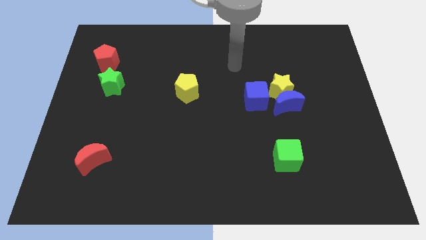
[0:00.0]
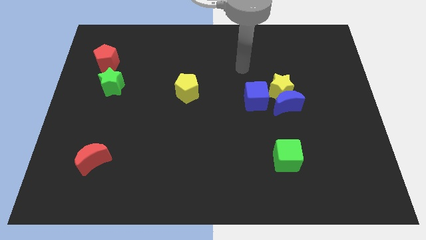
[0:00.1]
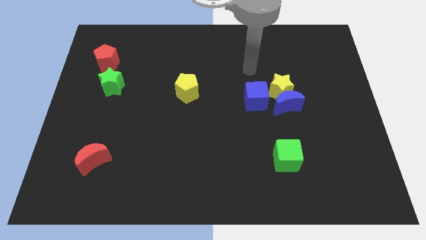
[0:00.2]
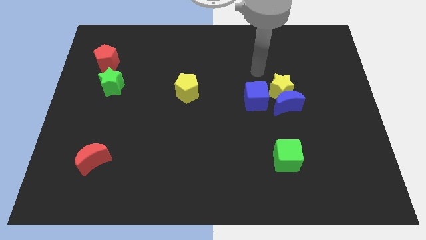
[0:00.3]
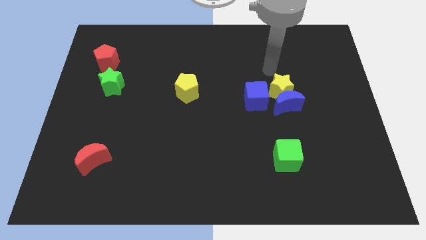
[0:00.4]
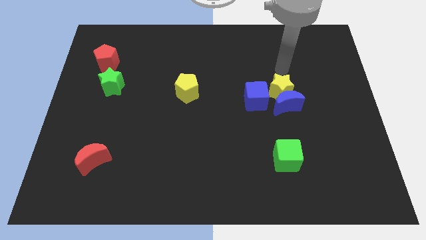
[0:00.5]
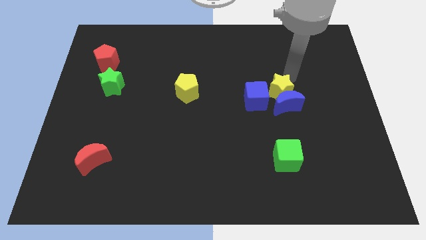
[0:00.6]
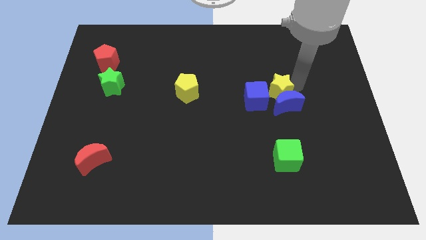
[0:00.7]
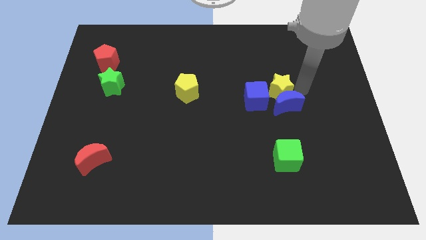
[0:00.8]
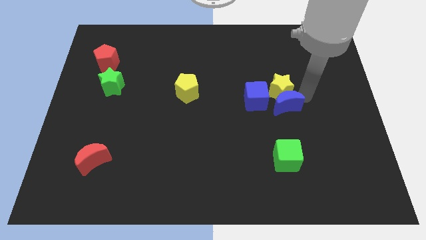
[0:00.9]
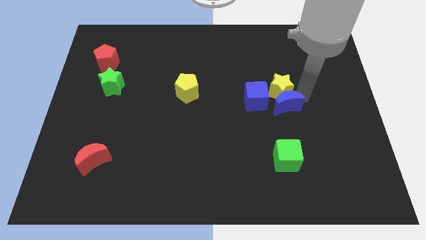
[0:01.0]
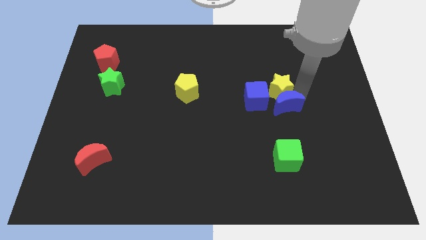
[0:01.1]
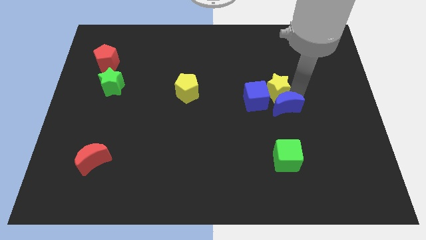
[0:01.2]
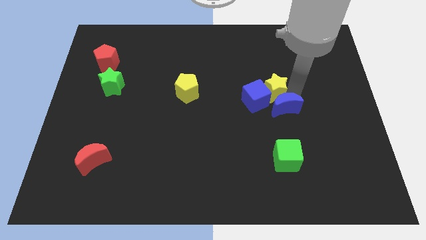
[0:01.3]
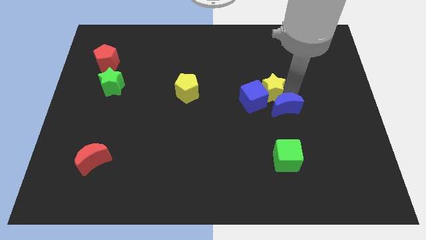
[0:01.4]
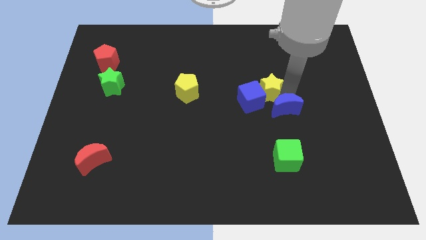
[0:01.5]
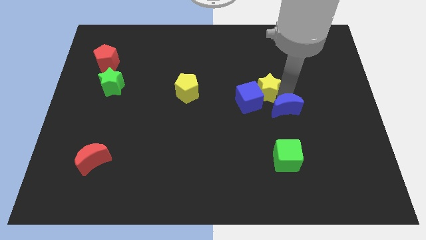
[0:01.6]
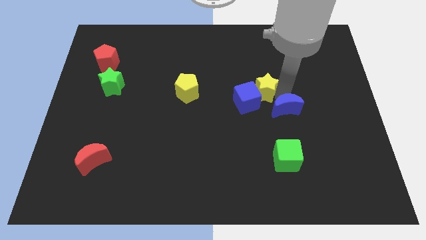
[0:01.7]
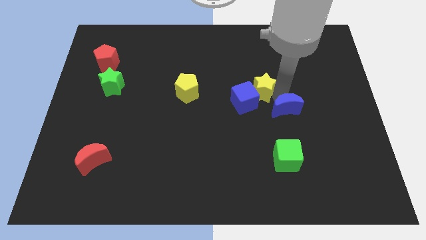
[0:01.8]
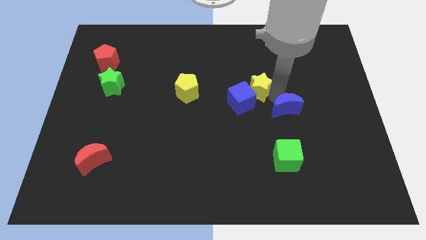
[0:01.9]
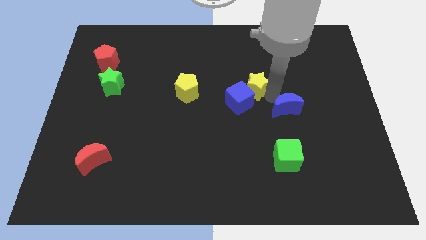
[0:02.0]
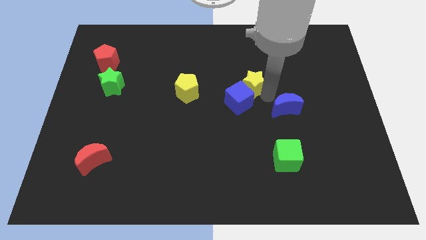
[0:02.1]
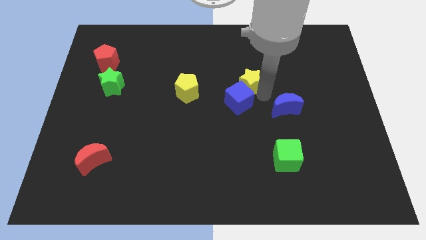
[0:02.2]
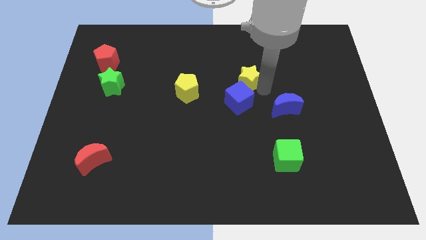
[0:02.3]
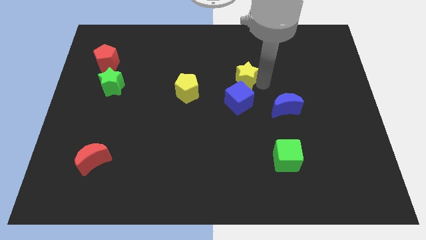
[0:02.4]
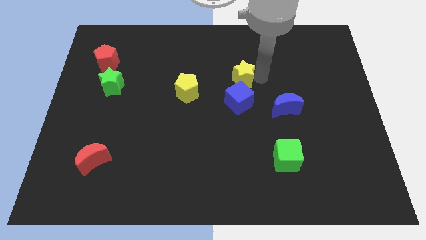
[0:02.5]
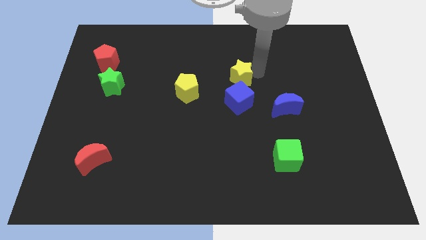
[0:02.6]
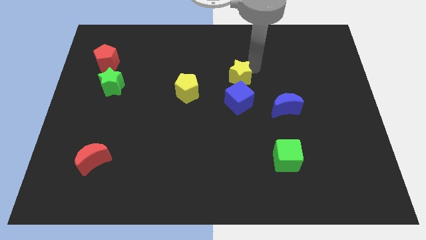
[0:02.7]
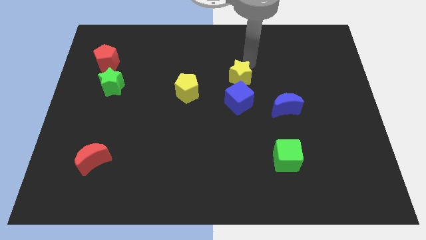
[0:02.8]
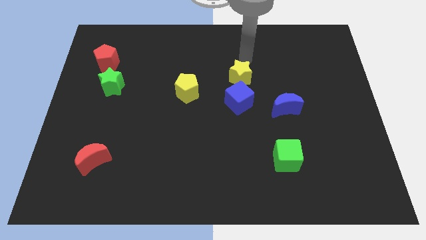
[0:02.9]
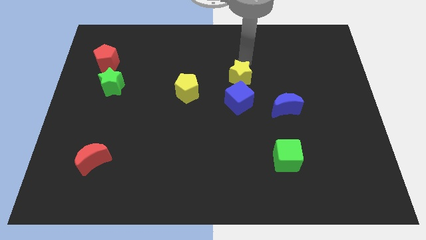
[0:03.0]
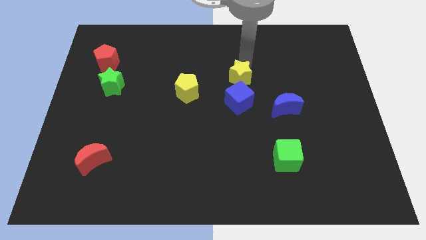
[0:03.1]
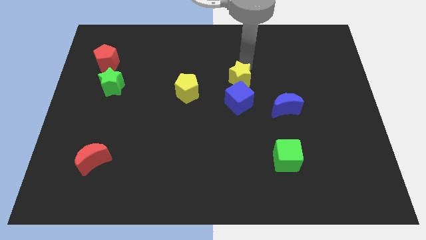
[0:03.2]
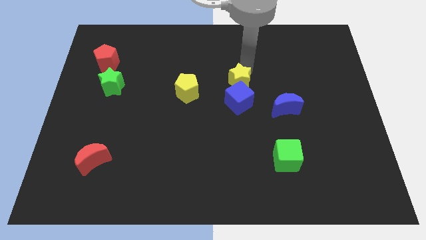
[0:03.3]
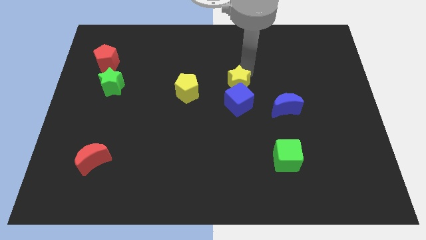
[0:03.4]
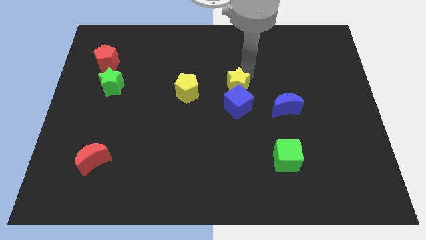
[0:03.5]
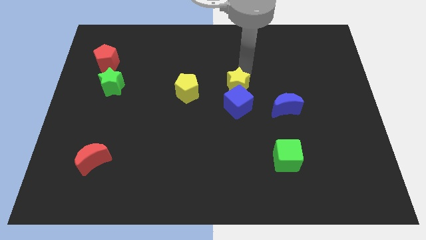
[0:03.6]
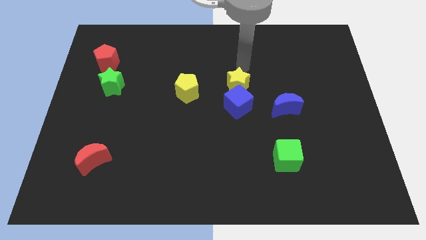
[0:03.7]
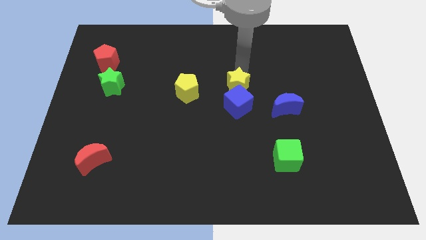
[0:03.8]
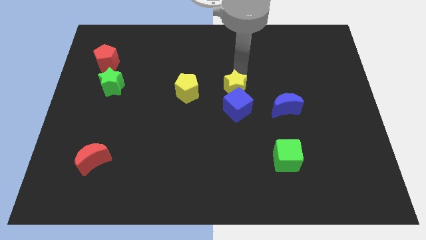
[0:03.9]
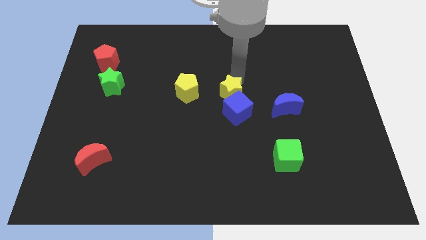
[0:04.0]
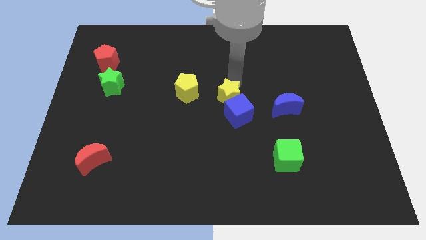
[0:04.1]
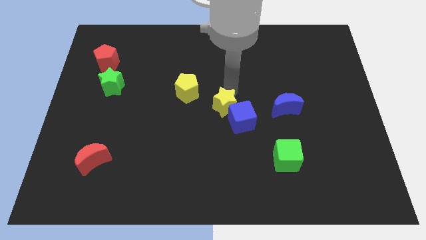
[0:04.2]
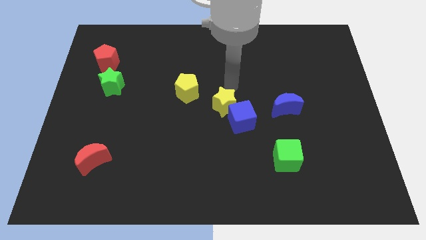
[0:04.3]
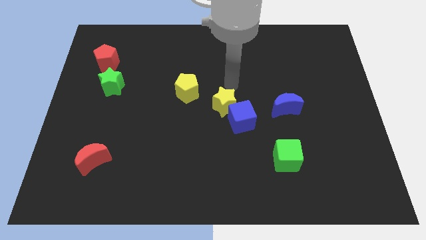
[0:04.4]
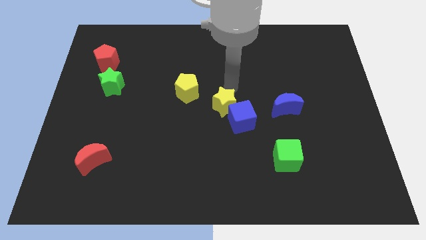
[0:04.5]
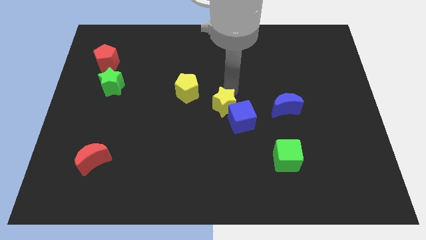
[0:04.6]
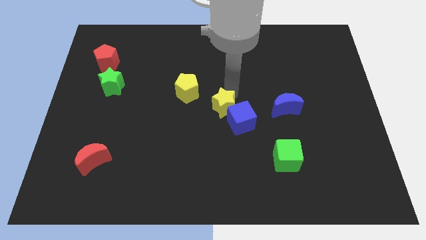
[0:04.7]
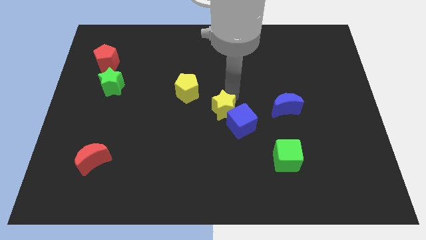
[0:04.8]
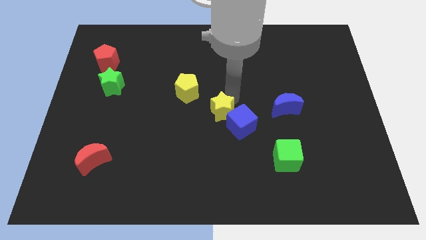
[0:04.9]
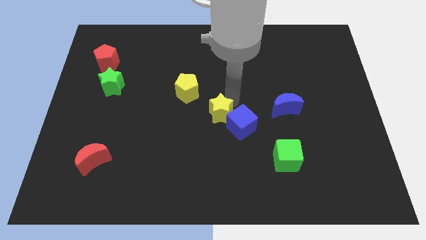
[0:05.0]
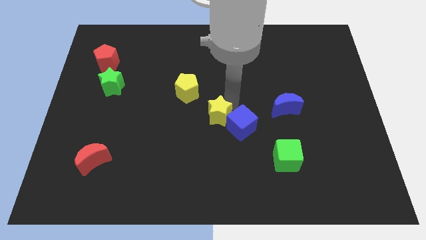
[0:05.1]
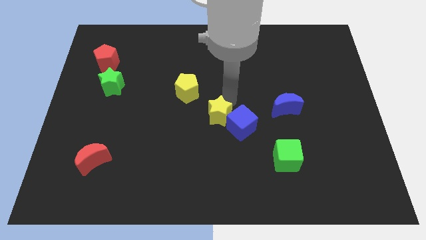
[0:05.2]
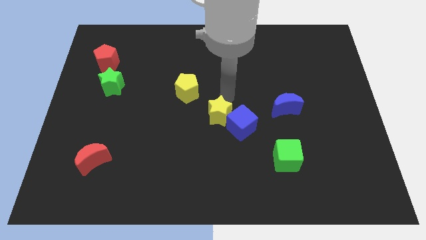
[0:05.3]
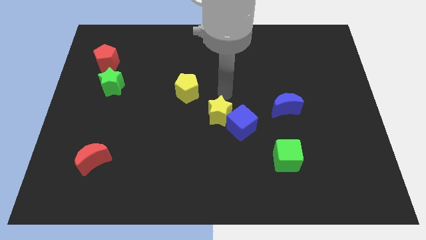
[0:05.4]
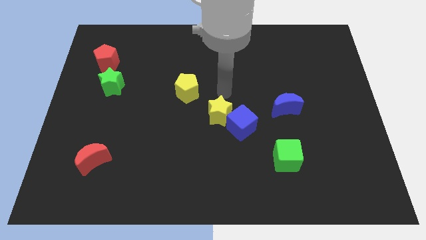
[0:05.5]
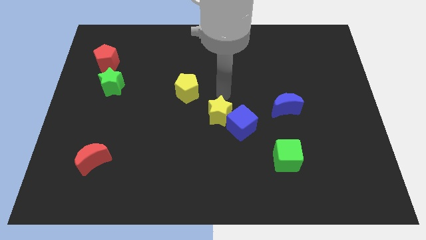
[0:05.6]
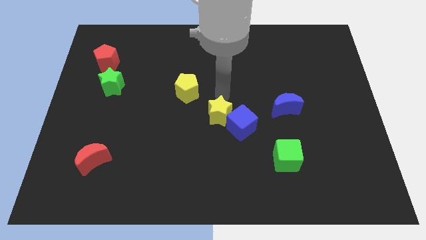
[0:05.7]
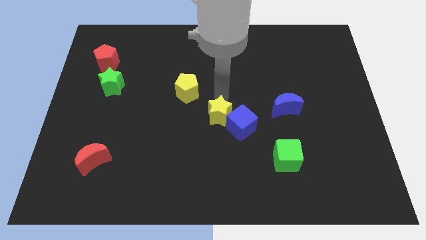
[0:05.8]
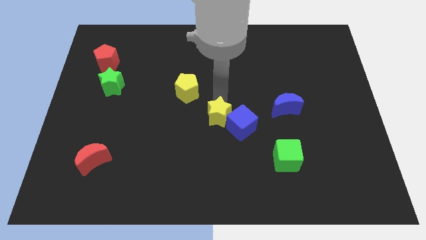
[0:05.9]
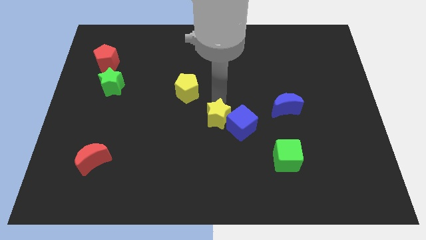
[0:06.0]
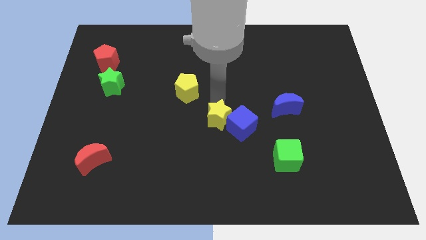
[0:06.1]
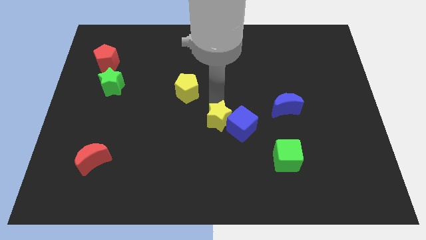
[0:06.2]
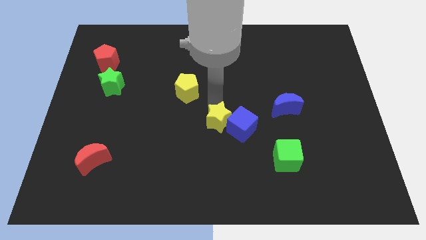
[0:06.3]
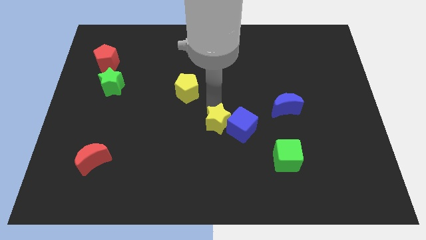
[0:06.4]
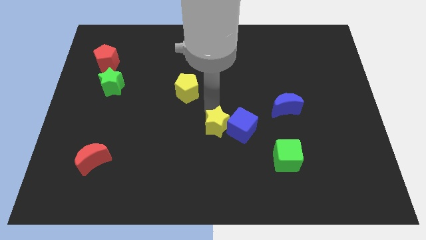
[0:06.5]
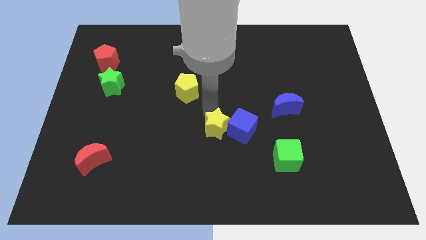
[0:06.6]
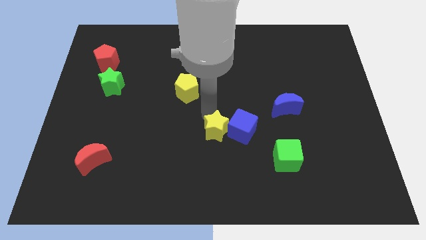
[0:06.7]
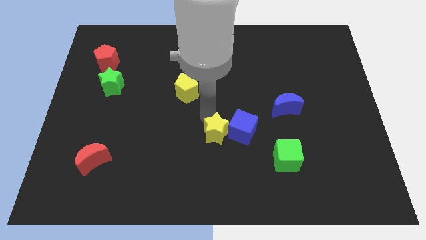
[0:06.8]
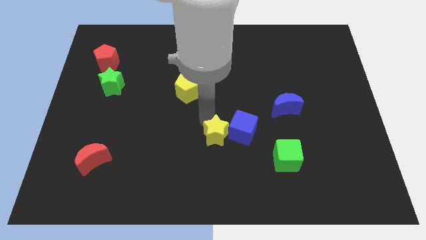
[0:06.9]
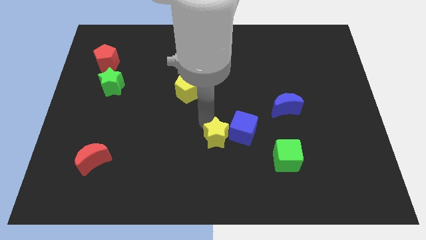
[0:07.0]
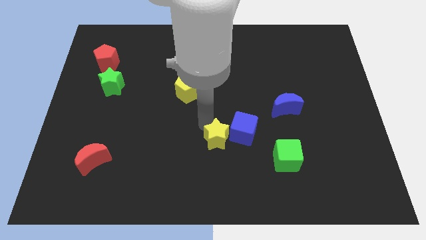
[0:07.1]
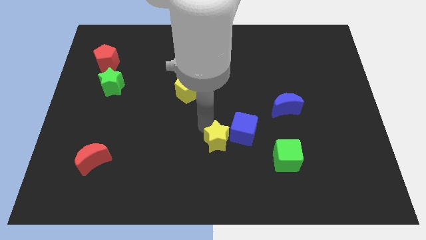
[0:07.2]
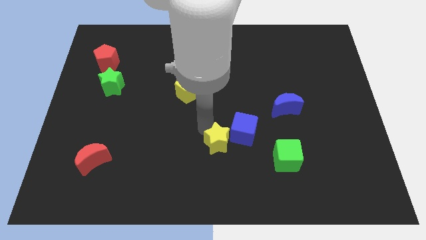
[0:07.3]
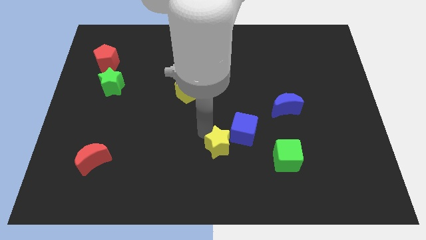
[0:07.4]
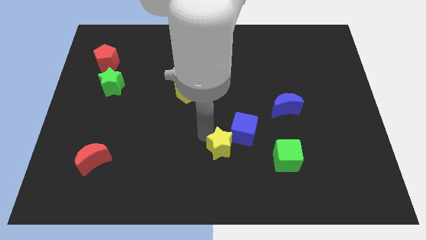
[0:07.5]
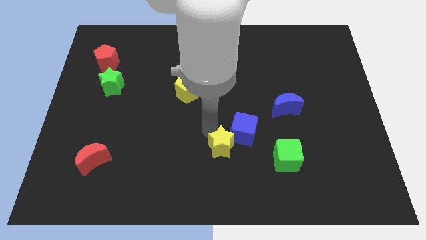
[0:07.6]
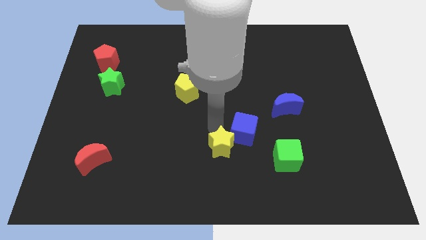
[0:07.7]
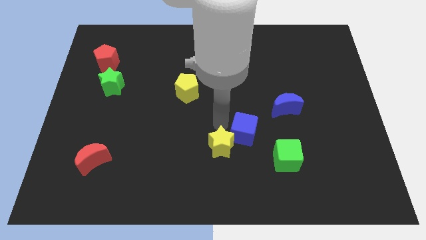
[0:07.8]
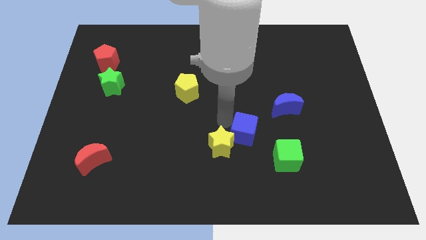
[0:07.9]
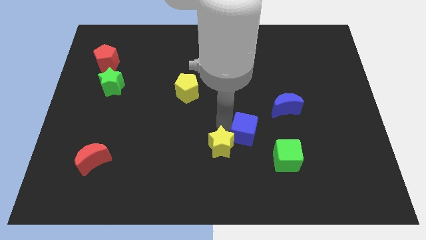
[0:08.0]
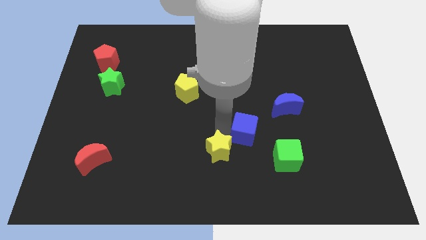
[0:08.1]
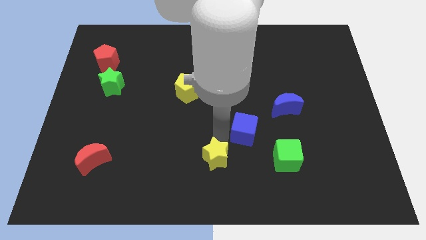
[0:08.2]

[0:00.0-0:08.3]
push the yellow star to the bottom side
